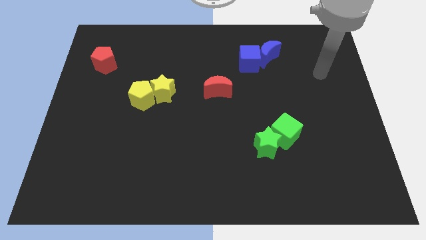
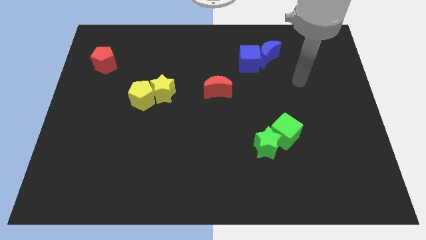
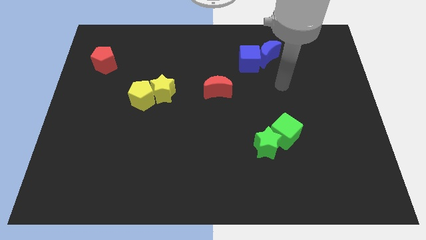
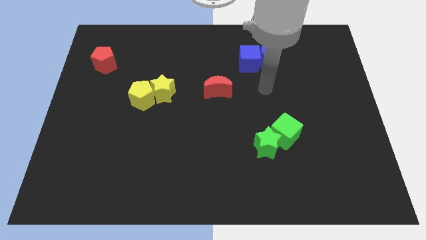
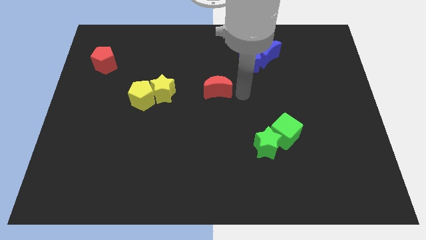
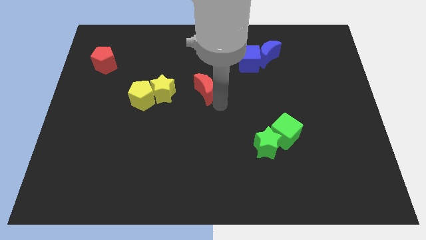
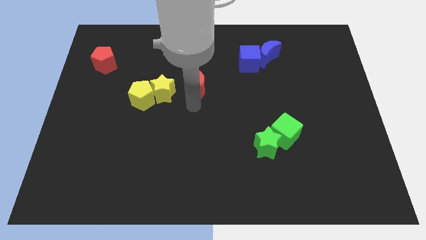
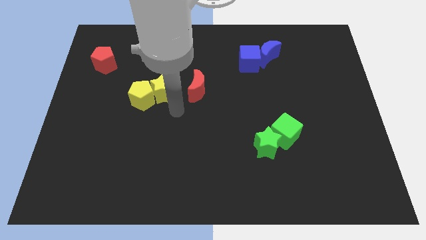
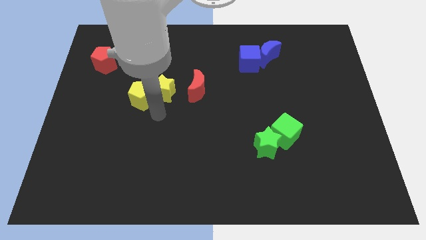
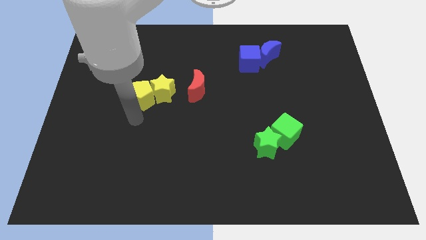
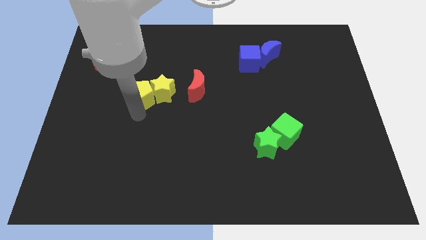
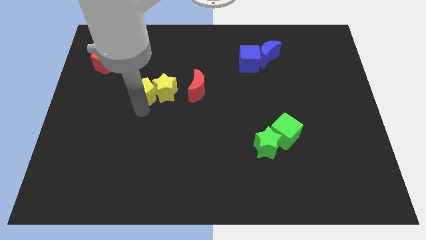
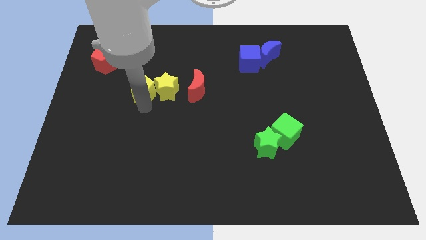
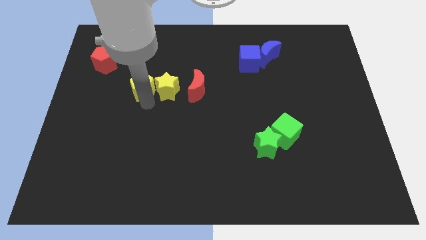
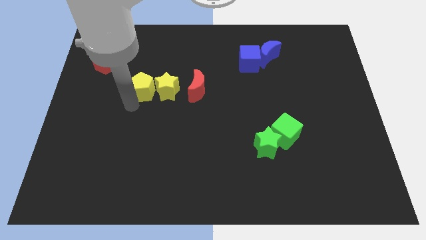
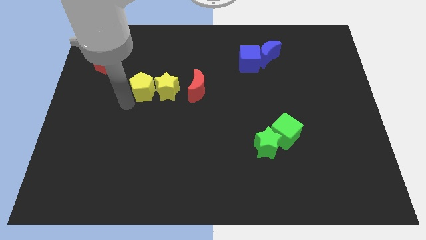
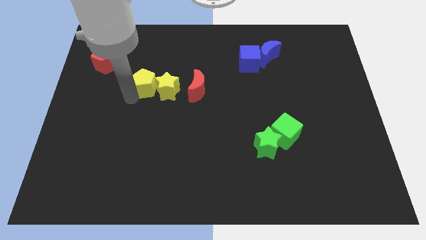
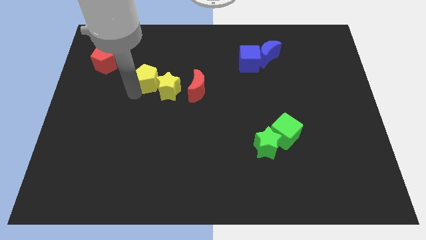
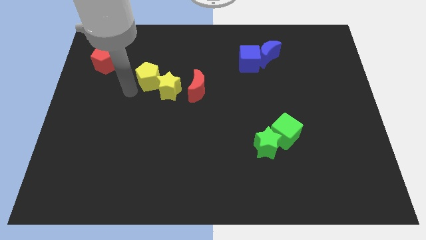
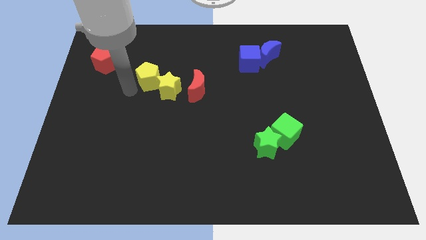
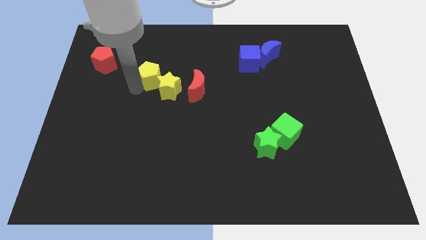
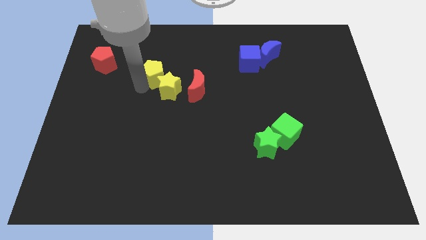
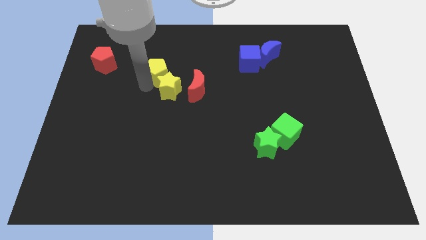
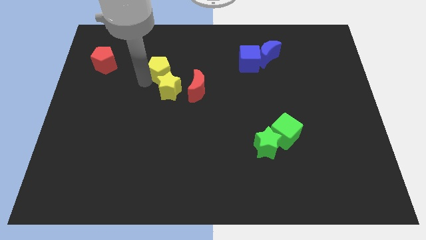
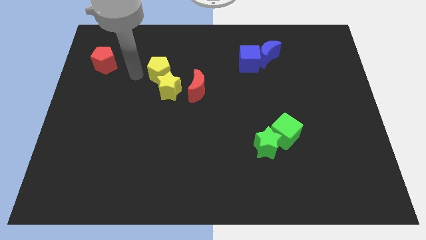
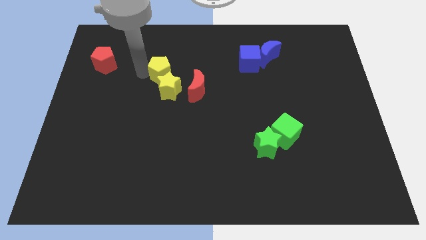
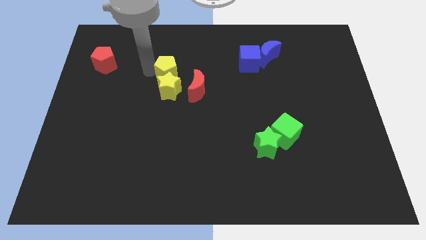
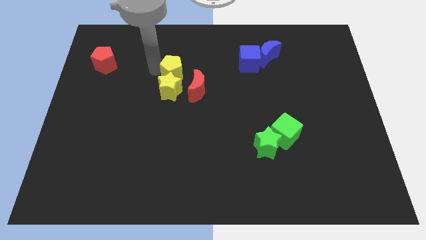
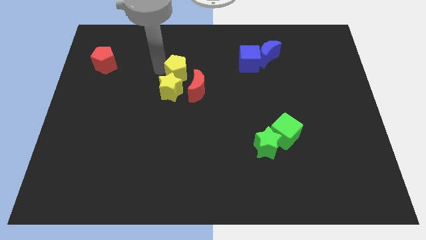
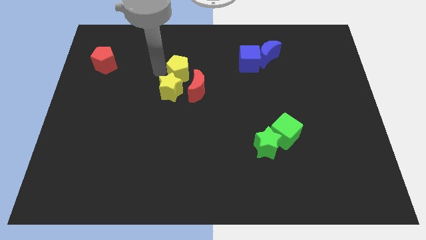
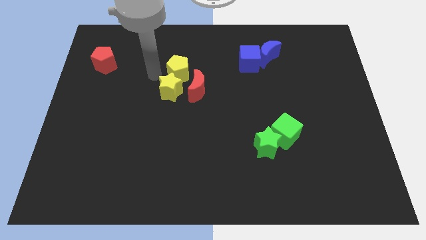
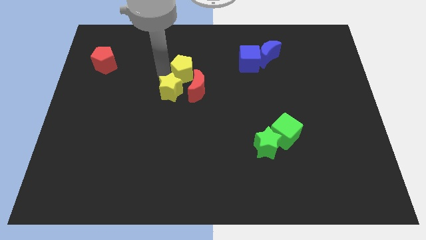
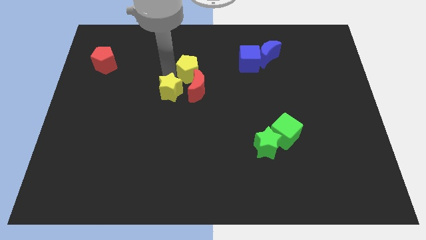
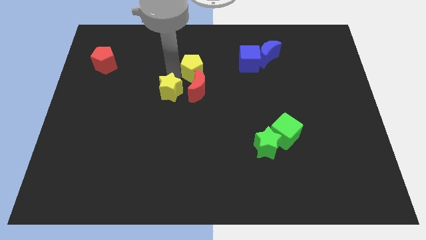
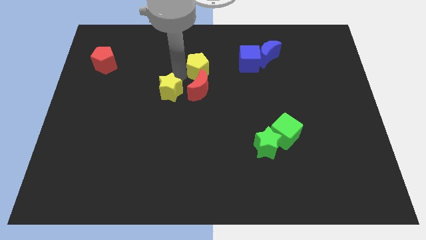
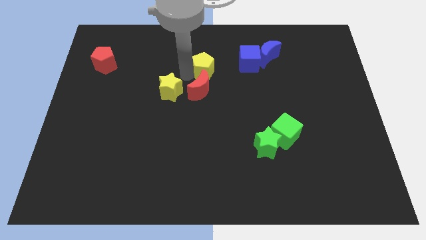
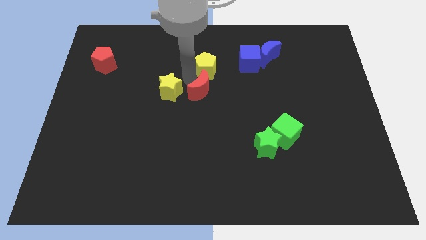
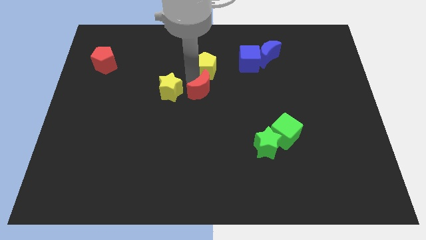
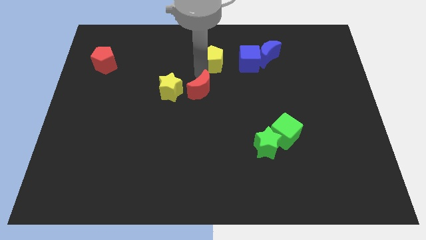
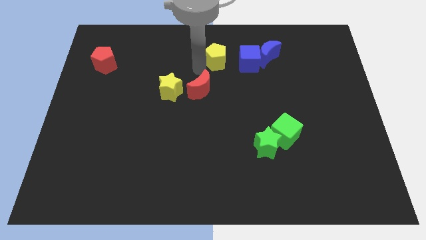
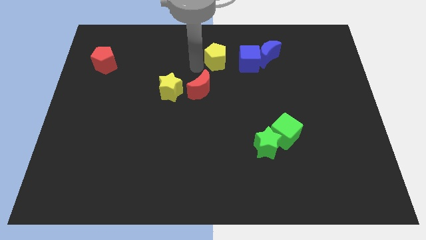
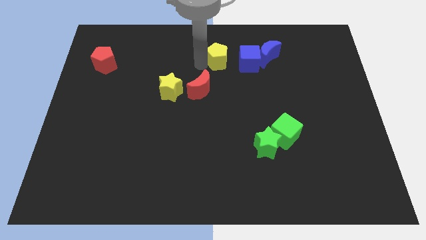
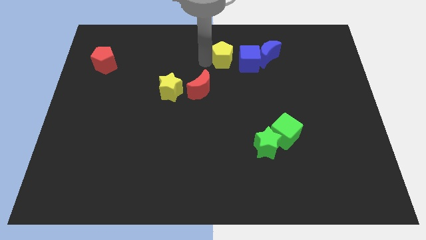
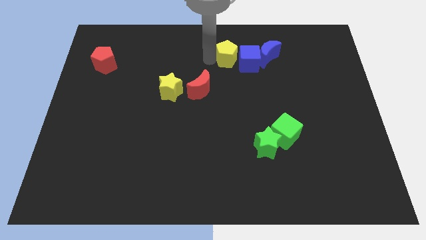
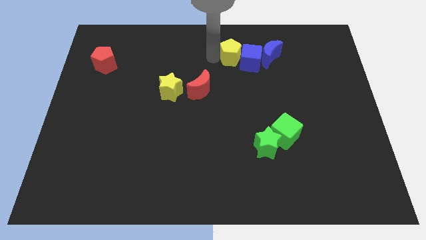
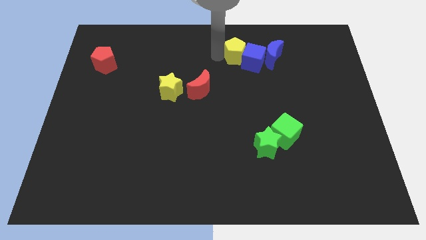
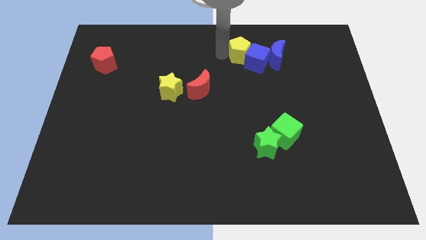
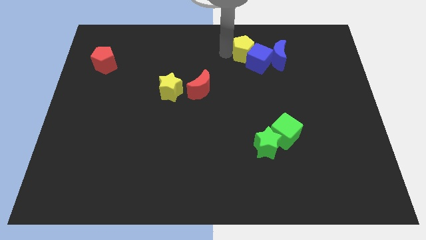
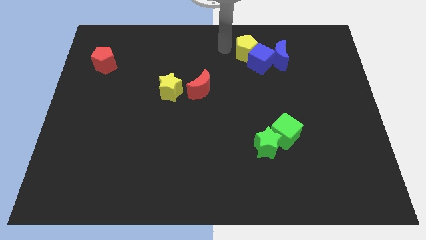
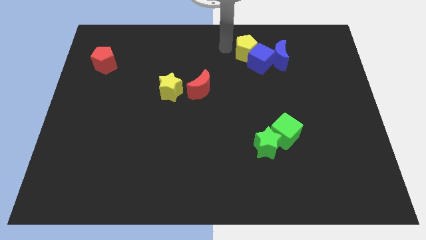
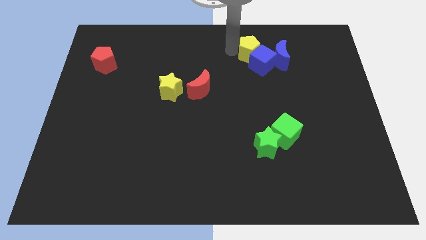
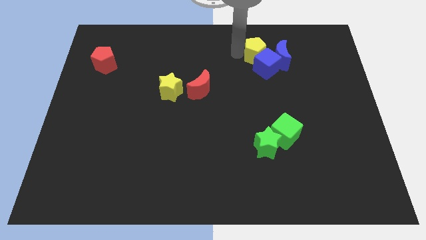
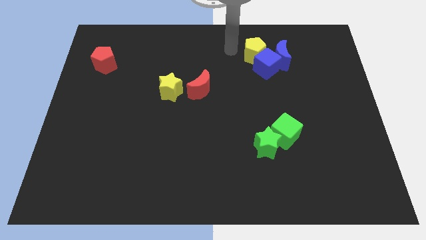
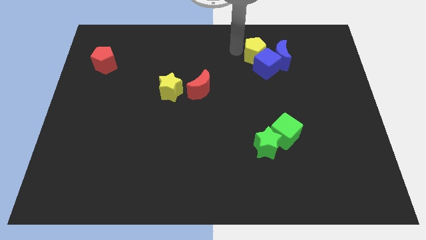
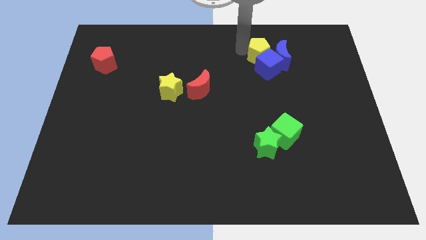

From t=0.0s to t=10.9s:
push the yellow pentagon next to the blue moon

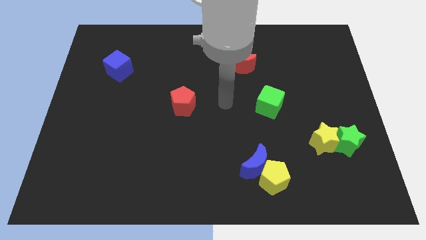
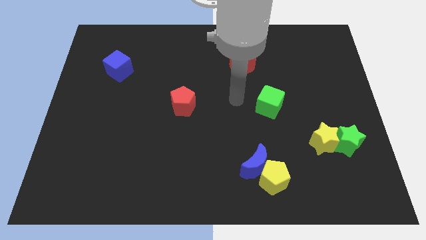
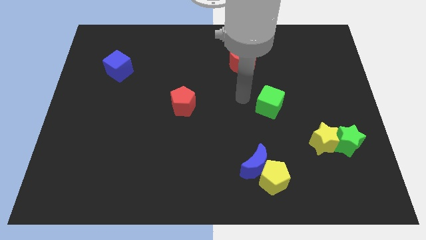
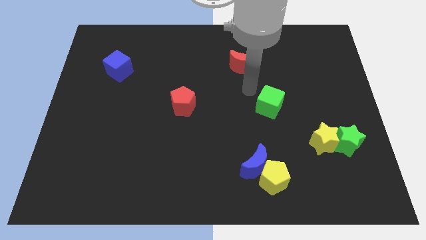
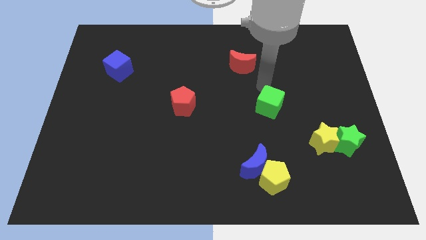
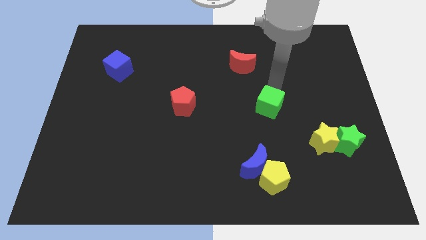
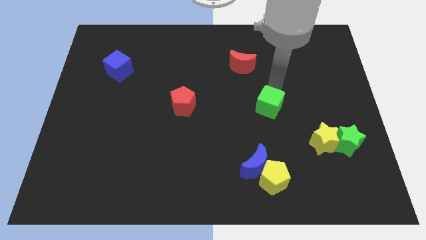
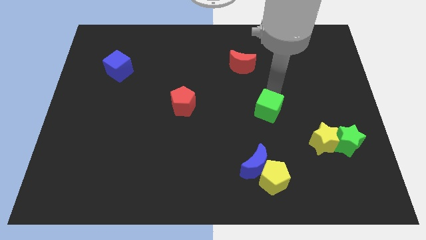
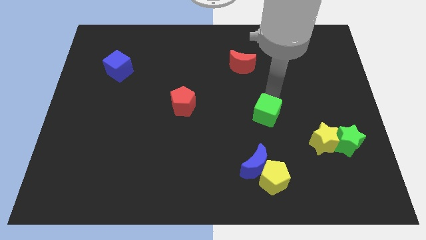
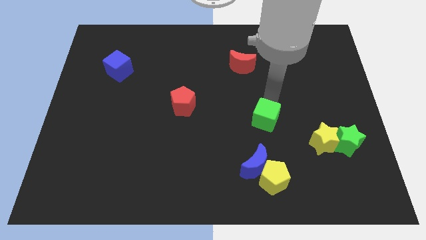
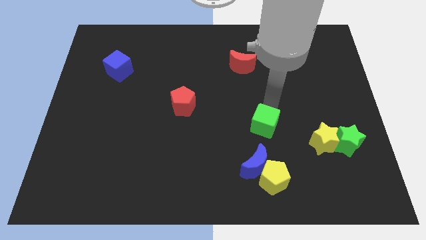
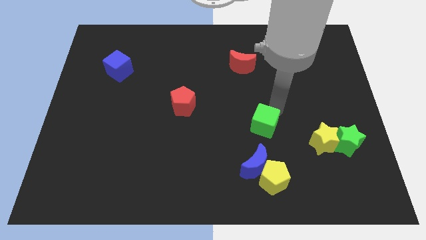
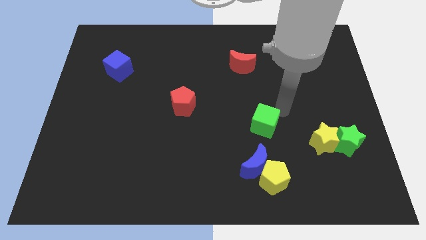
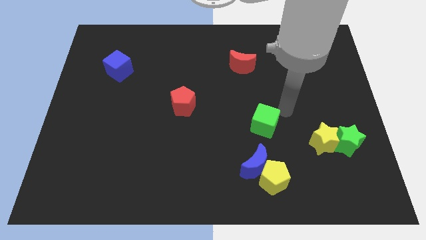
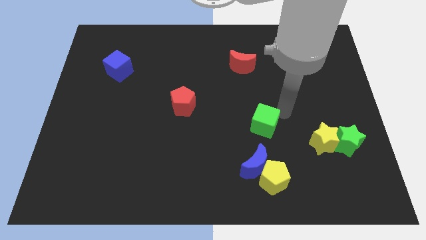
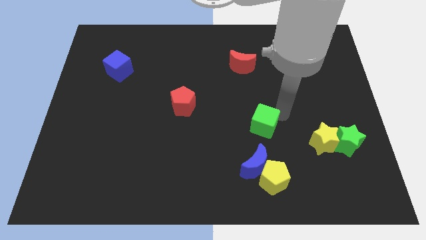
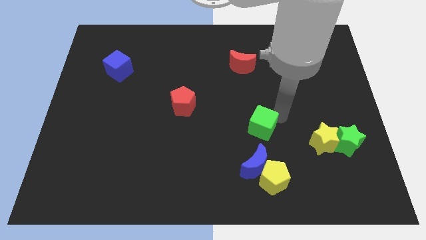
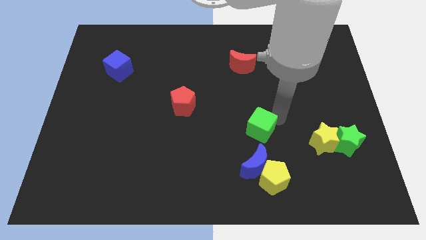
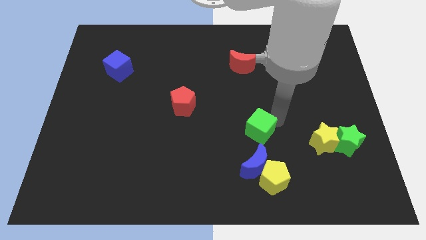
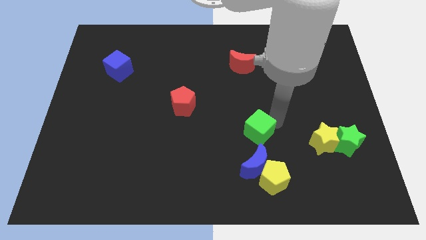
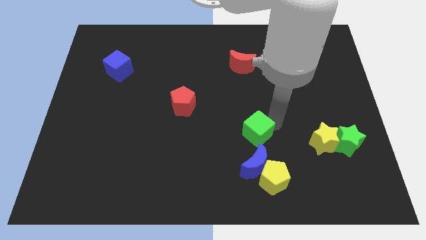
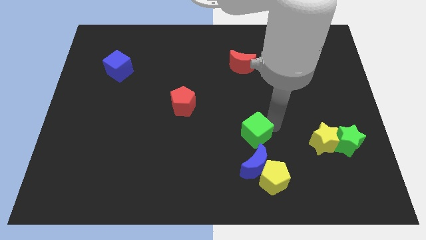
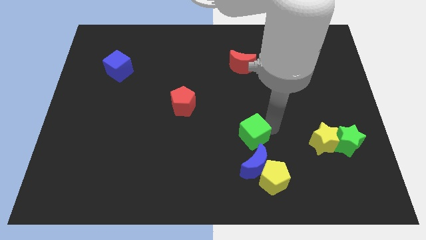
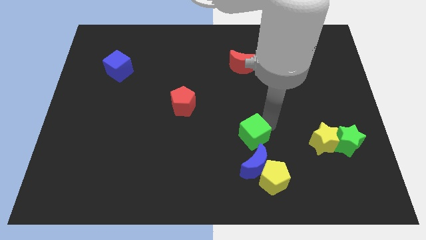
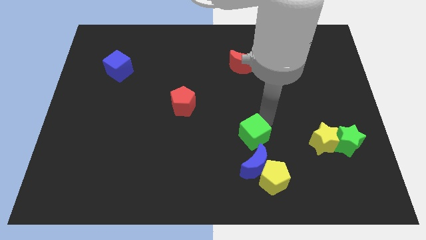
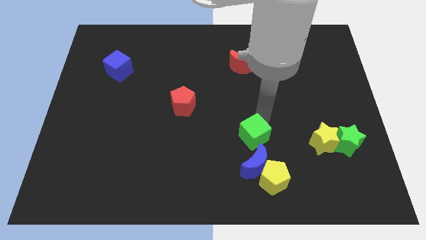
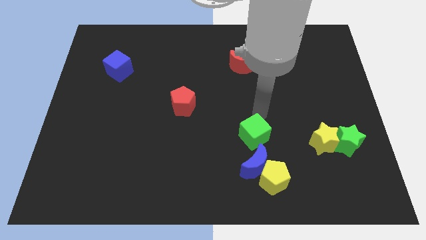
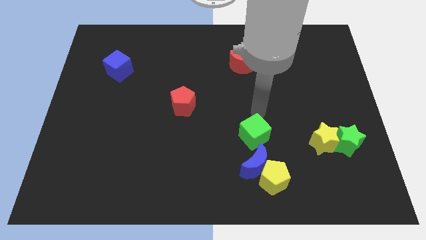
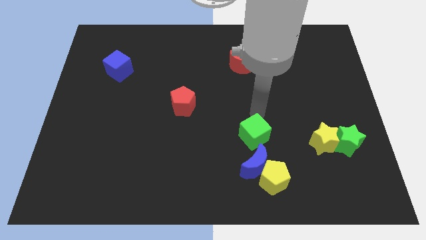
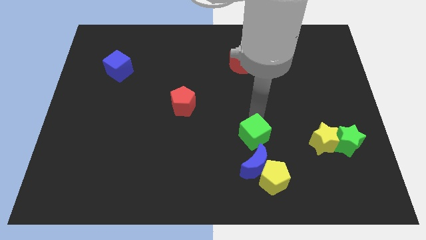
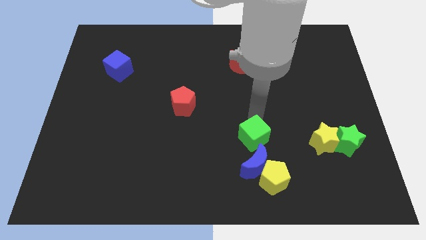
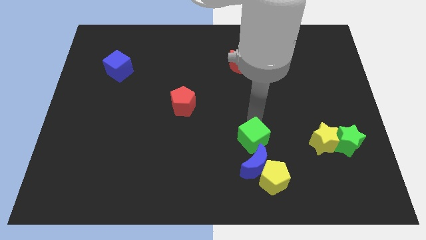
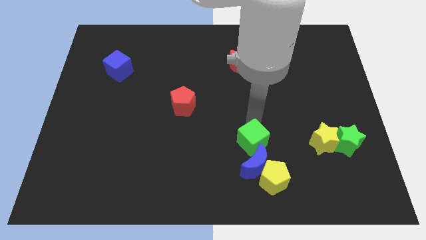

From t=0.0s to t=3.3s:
slide the green cube next to the blue moon
